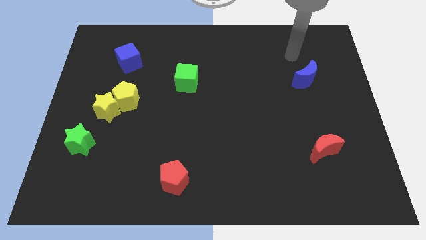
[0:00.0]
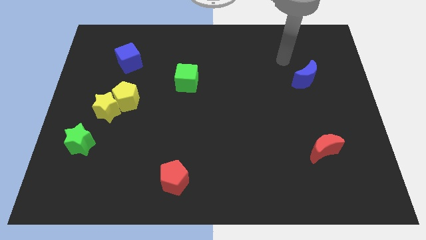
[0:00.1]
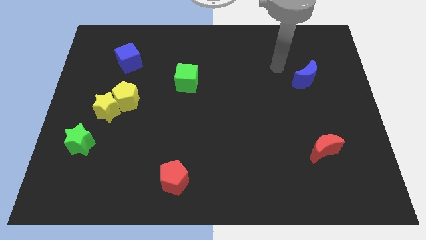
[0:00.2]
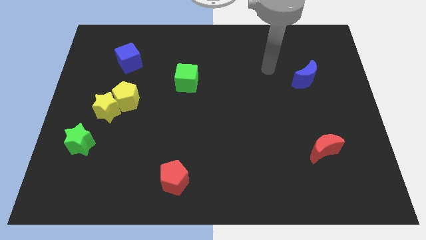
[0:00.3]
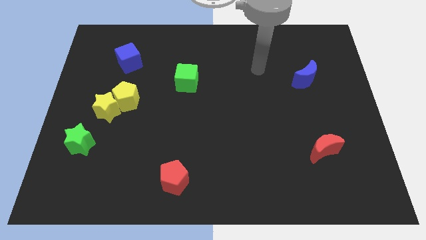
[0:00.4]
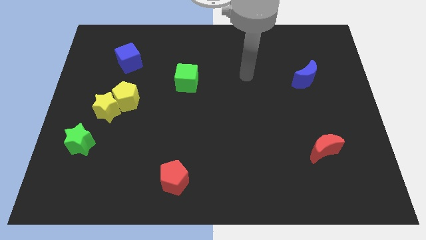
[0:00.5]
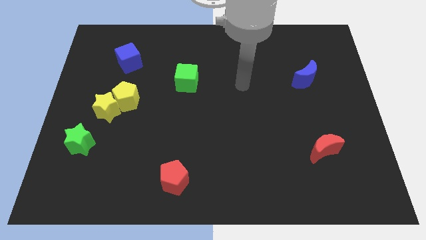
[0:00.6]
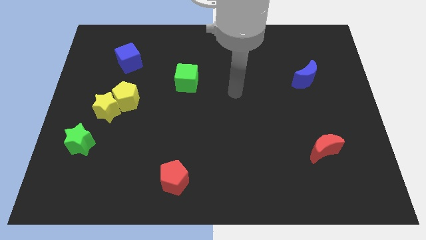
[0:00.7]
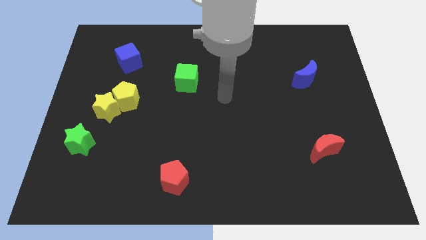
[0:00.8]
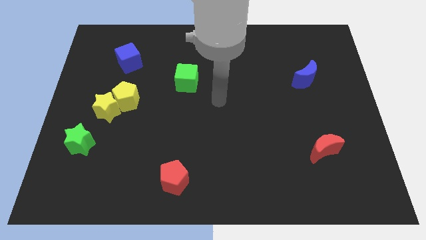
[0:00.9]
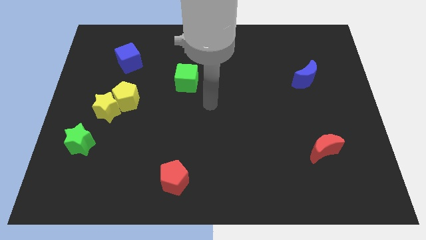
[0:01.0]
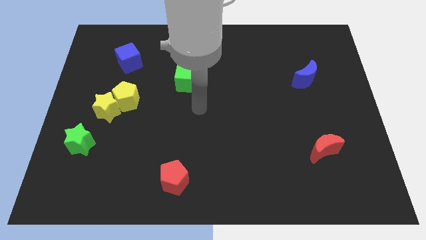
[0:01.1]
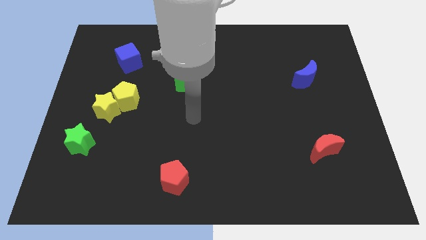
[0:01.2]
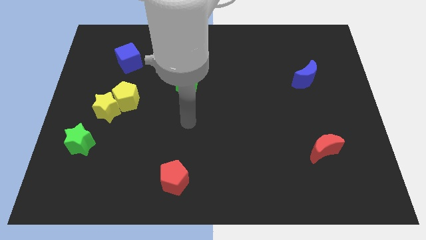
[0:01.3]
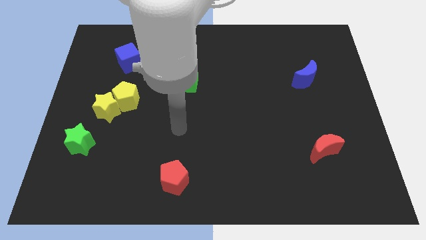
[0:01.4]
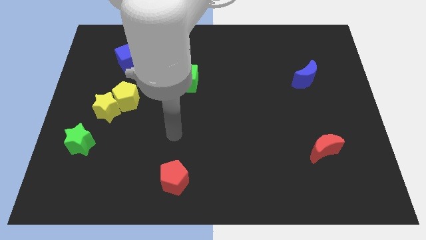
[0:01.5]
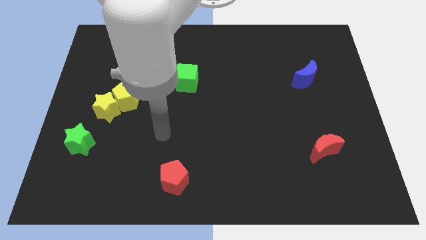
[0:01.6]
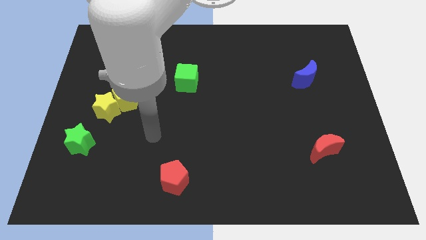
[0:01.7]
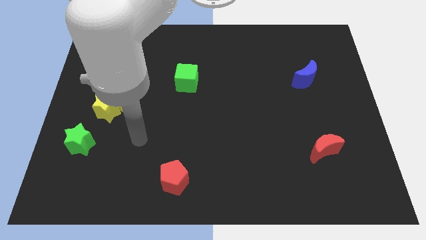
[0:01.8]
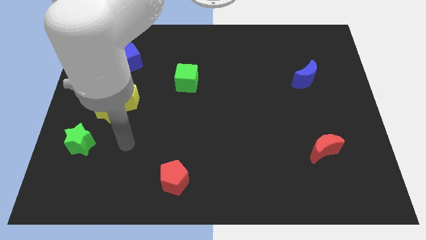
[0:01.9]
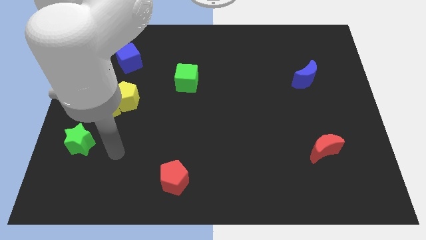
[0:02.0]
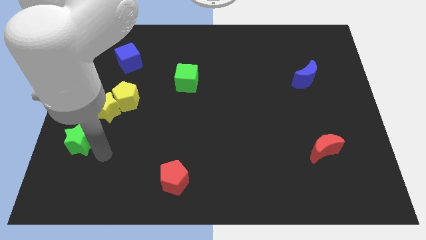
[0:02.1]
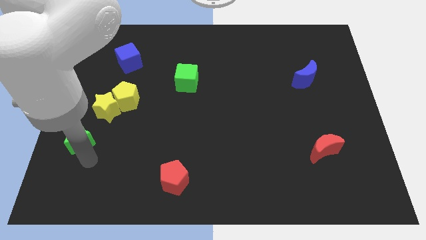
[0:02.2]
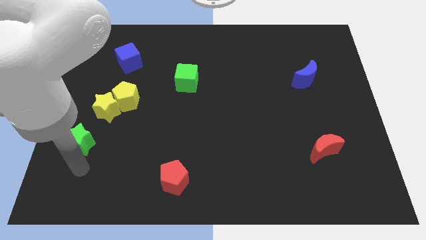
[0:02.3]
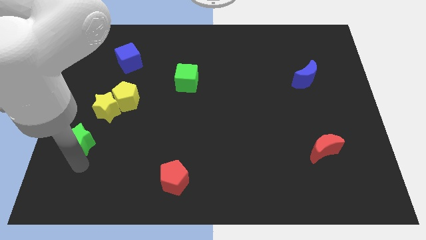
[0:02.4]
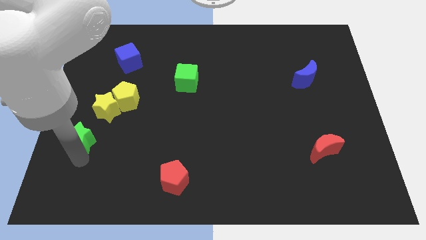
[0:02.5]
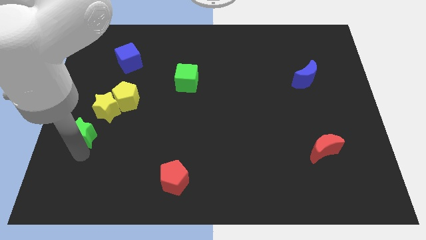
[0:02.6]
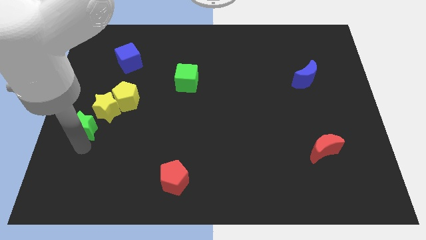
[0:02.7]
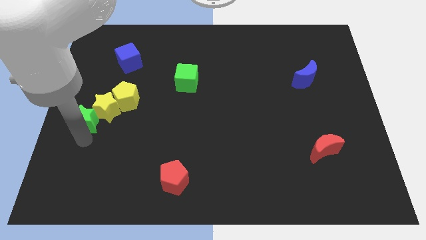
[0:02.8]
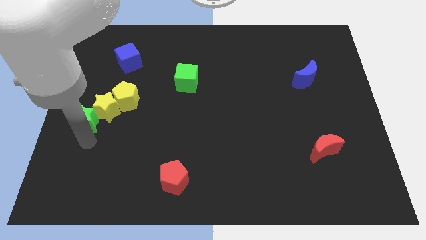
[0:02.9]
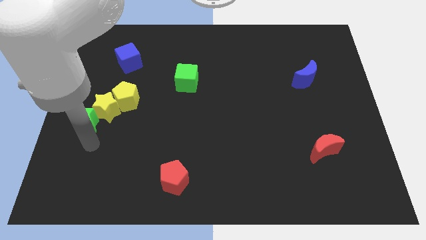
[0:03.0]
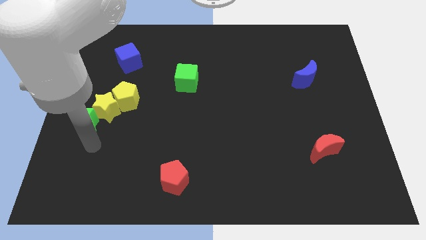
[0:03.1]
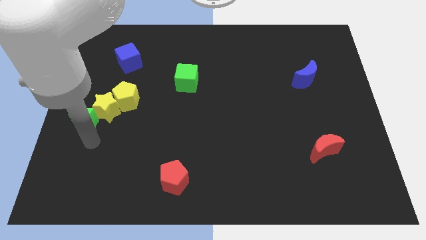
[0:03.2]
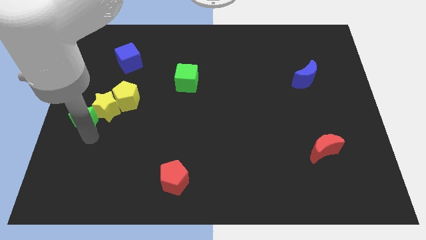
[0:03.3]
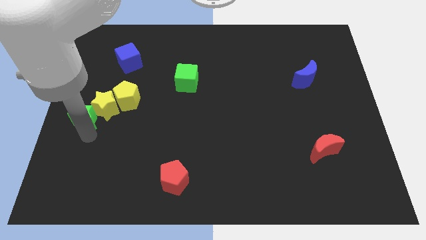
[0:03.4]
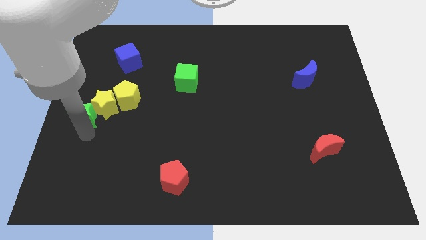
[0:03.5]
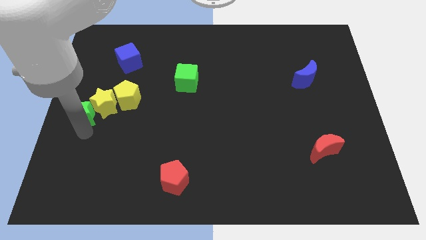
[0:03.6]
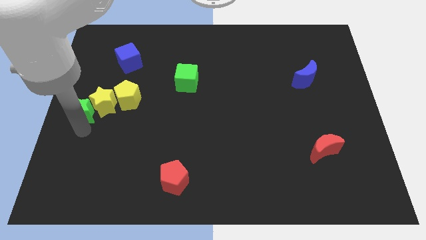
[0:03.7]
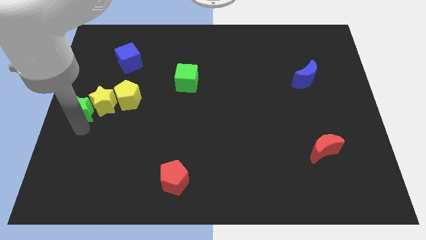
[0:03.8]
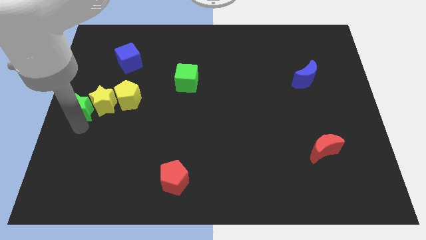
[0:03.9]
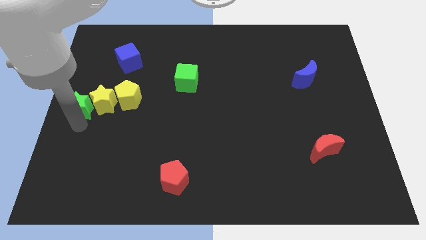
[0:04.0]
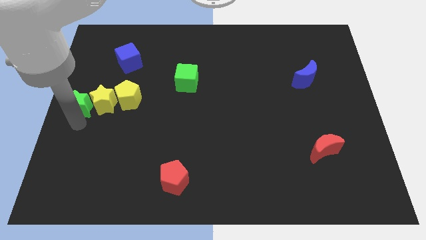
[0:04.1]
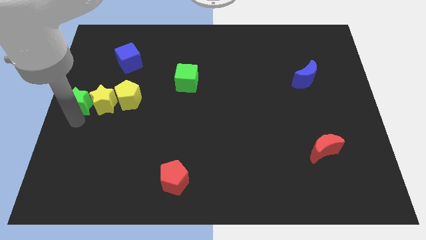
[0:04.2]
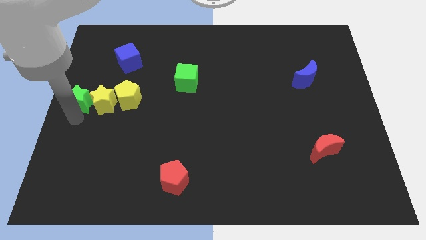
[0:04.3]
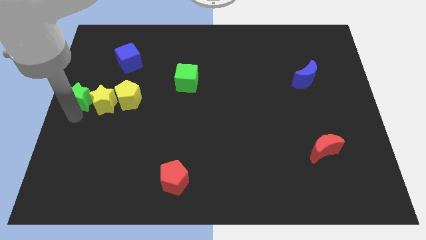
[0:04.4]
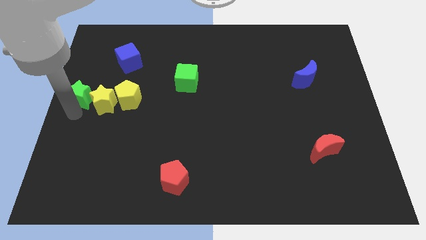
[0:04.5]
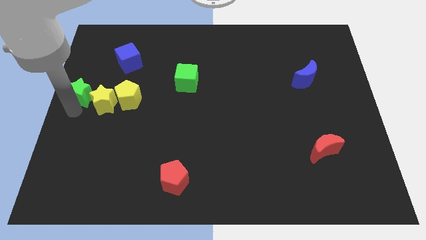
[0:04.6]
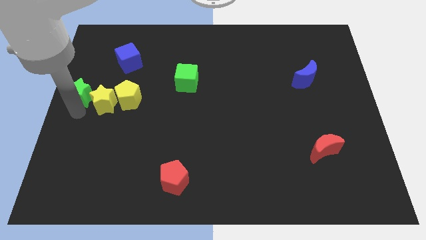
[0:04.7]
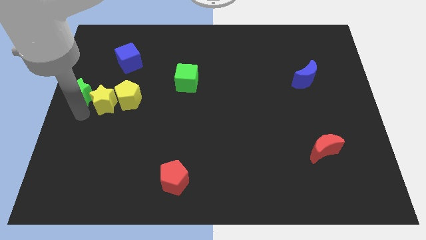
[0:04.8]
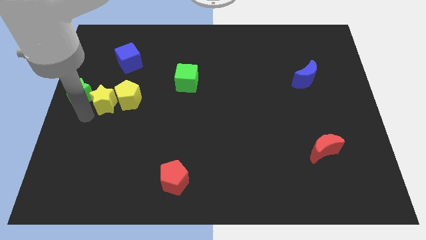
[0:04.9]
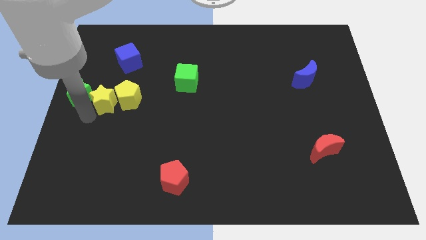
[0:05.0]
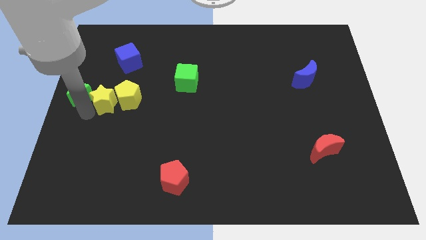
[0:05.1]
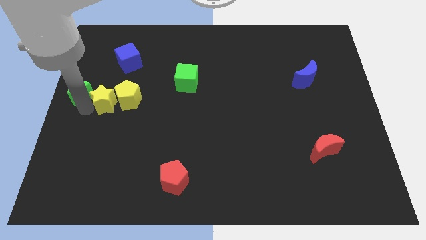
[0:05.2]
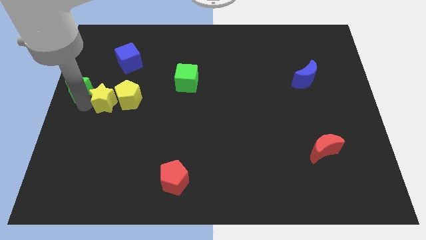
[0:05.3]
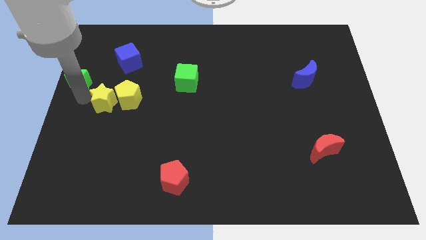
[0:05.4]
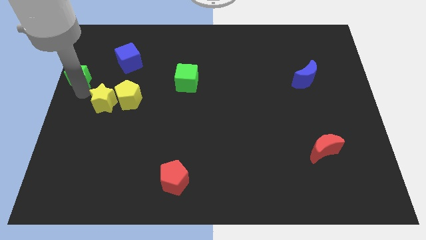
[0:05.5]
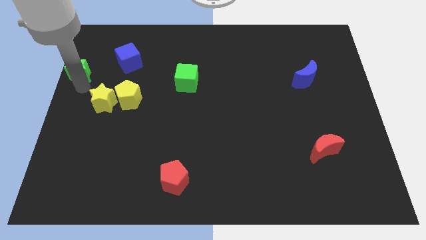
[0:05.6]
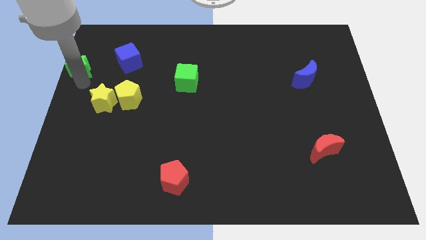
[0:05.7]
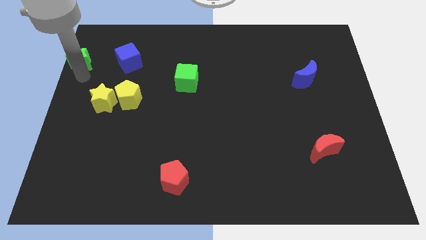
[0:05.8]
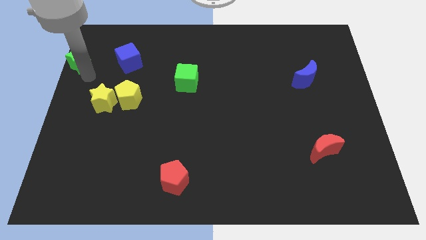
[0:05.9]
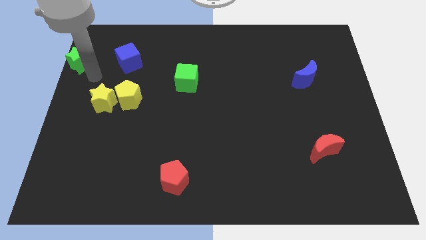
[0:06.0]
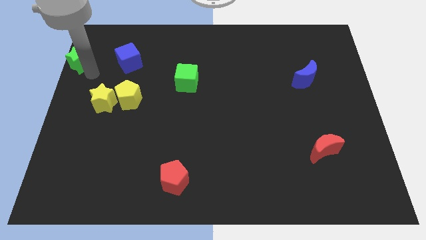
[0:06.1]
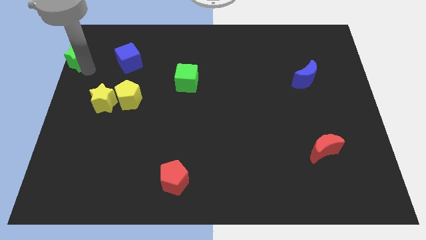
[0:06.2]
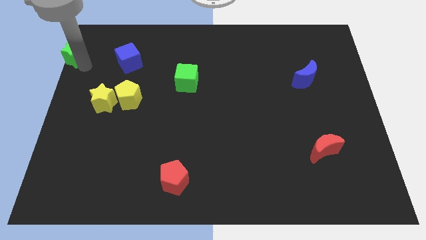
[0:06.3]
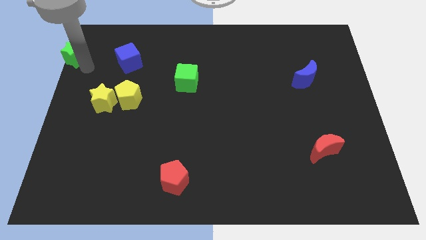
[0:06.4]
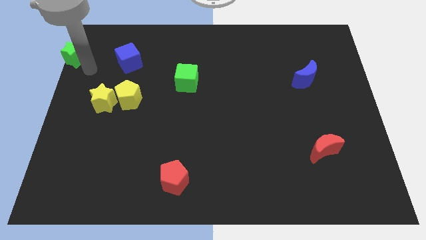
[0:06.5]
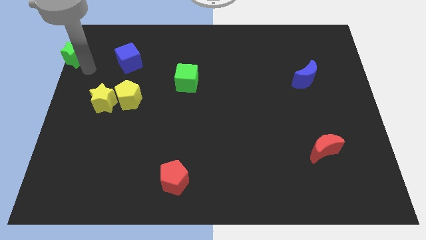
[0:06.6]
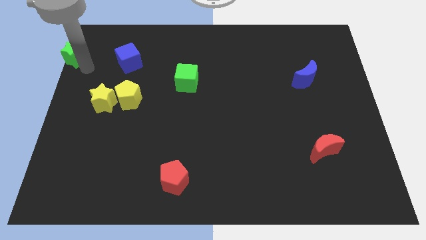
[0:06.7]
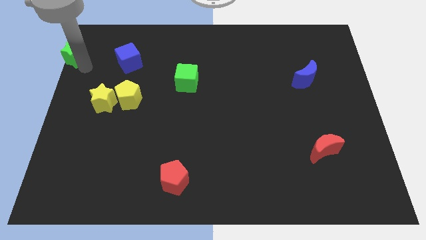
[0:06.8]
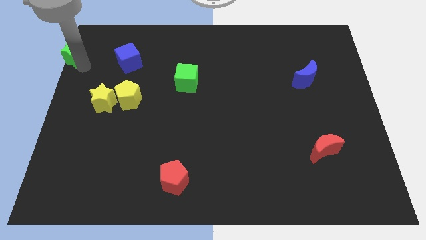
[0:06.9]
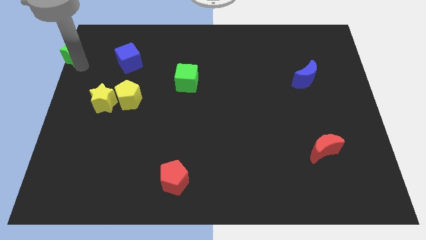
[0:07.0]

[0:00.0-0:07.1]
slide the green star to the upper left corner
